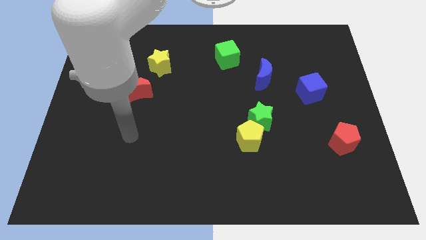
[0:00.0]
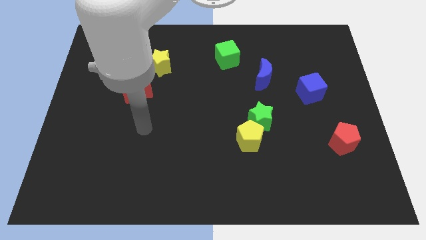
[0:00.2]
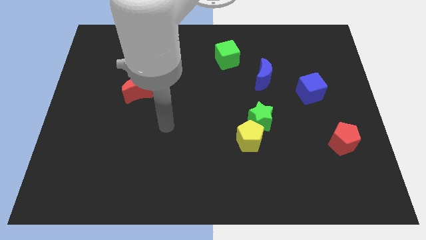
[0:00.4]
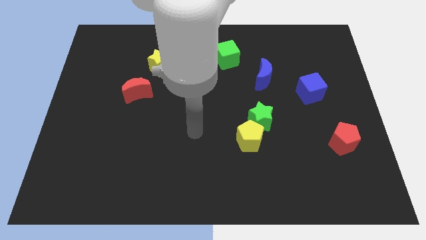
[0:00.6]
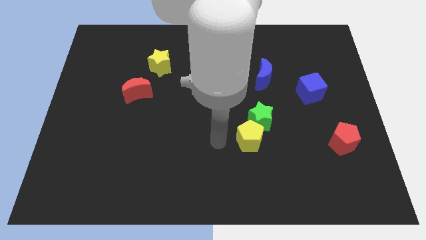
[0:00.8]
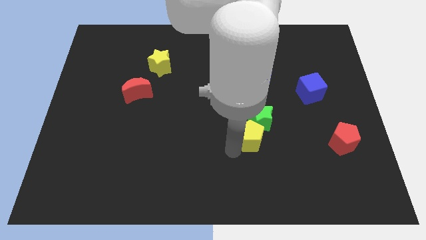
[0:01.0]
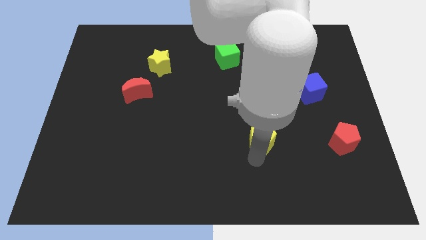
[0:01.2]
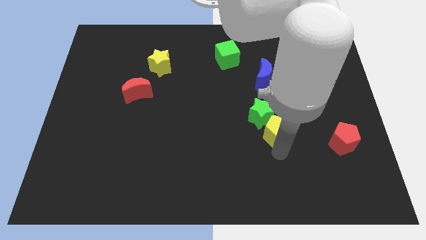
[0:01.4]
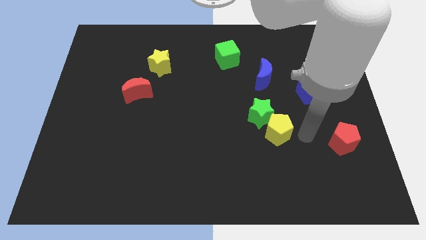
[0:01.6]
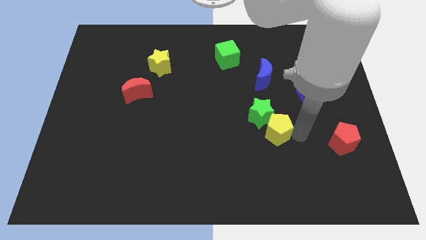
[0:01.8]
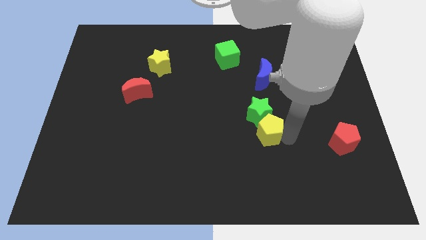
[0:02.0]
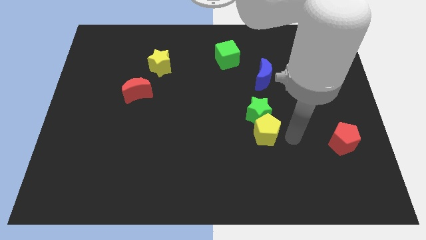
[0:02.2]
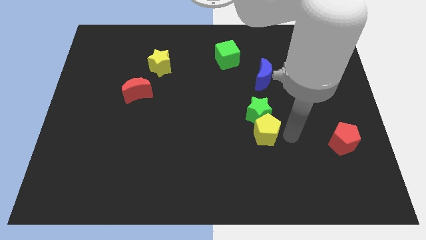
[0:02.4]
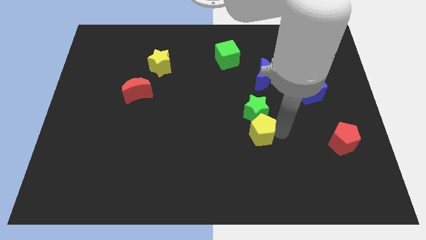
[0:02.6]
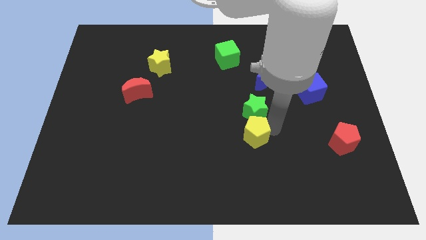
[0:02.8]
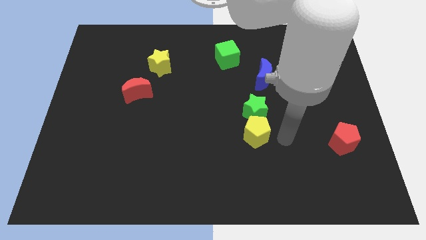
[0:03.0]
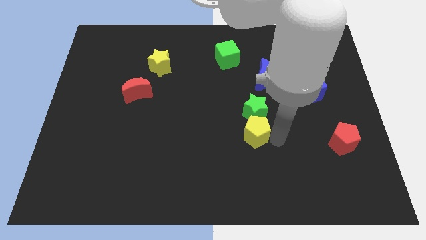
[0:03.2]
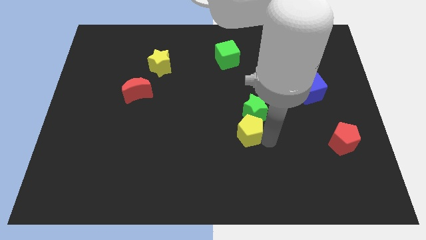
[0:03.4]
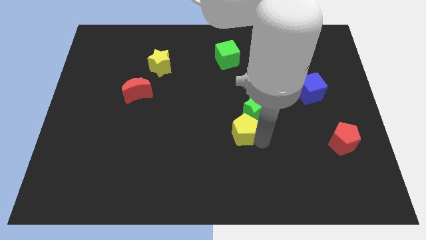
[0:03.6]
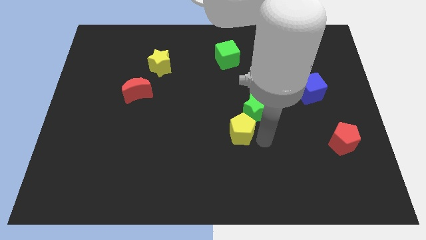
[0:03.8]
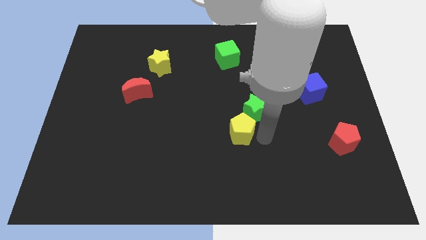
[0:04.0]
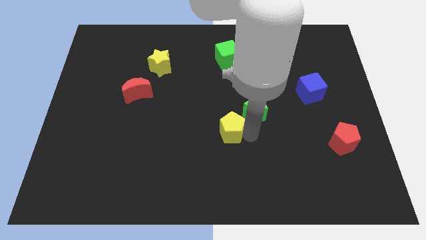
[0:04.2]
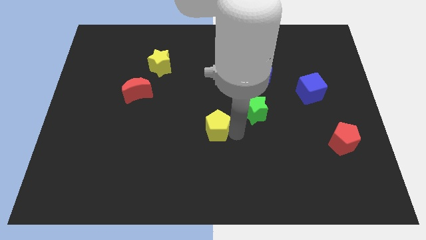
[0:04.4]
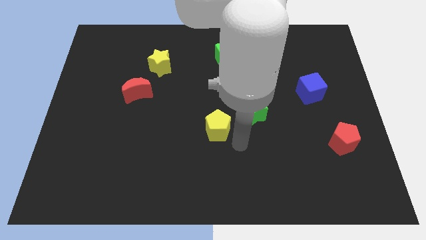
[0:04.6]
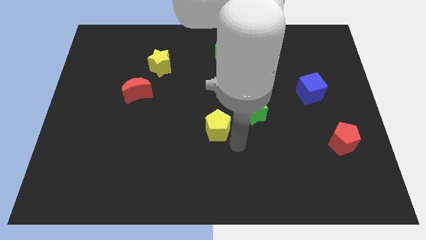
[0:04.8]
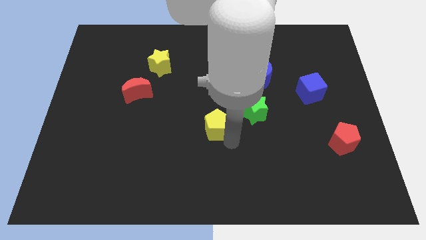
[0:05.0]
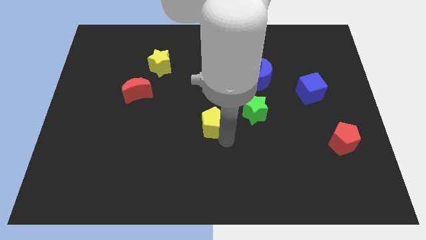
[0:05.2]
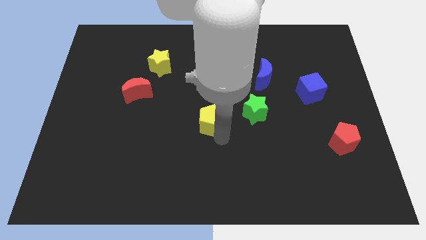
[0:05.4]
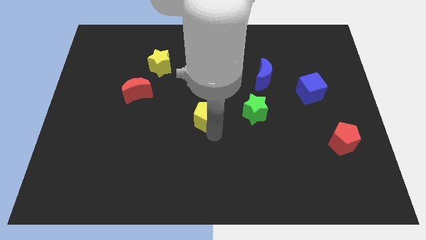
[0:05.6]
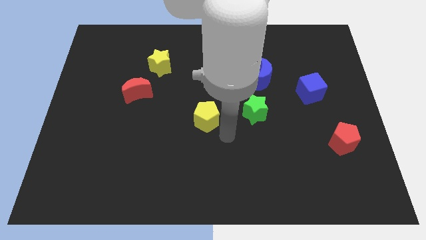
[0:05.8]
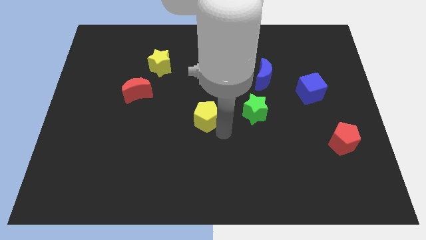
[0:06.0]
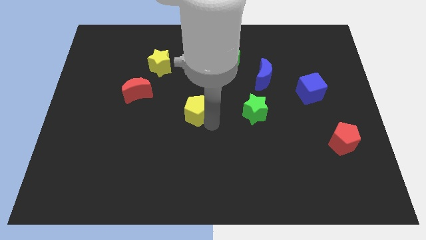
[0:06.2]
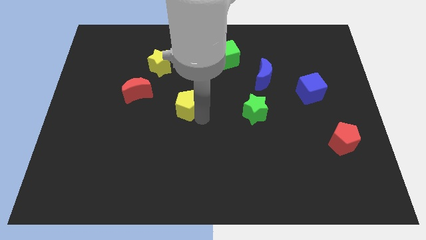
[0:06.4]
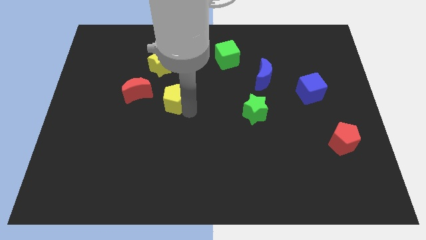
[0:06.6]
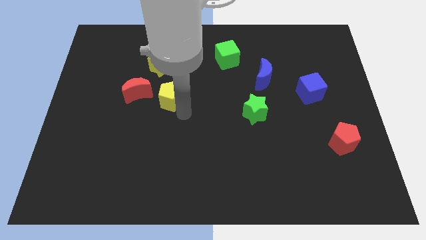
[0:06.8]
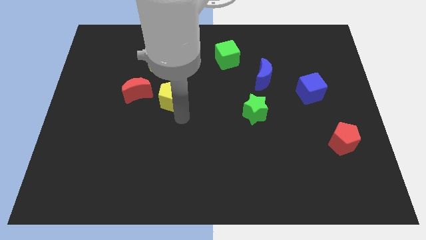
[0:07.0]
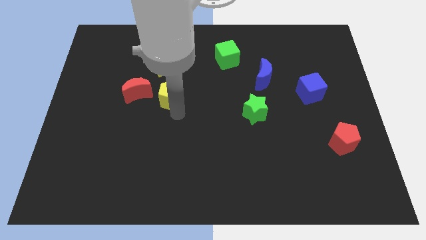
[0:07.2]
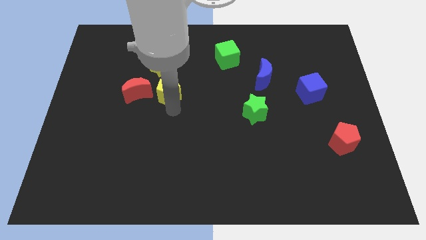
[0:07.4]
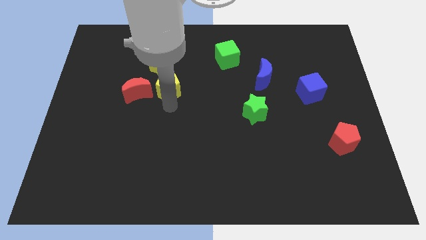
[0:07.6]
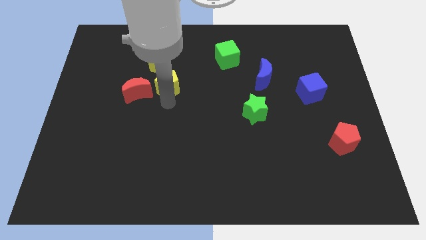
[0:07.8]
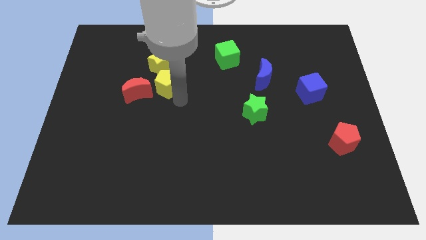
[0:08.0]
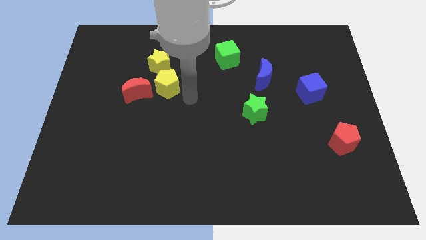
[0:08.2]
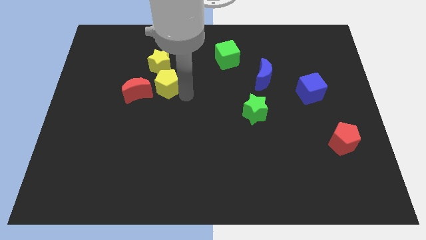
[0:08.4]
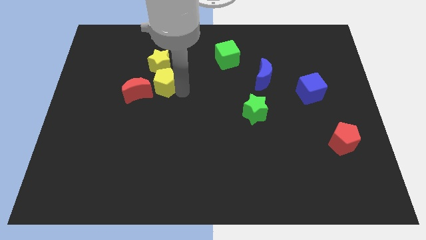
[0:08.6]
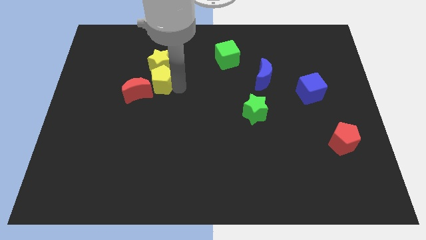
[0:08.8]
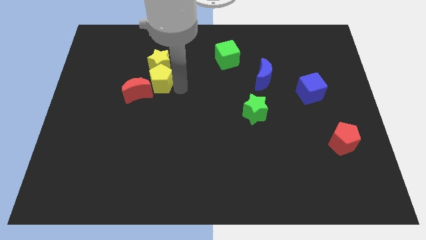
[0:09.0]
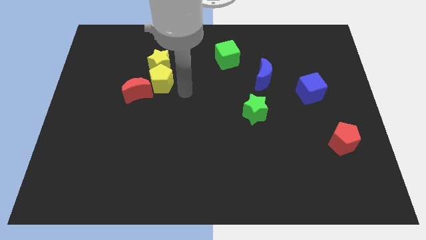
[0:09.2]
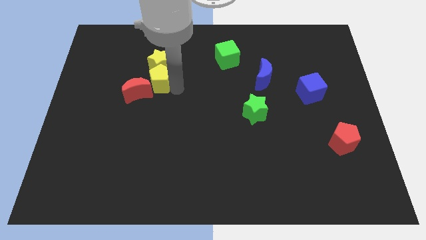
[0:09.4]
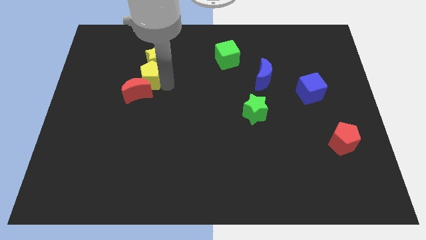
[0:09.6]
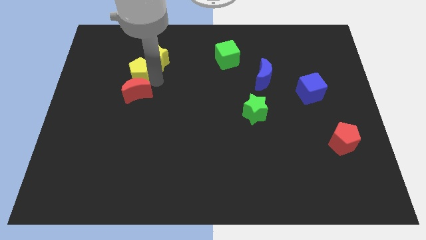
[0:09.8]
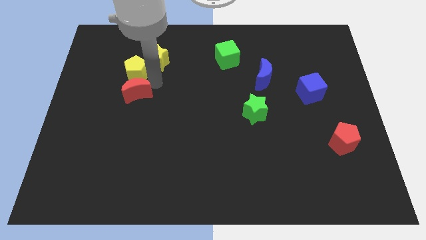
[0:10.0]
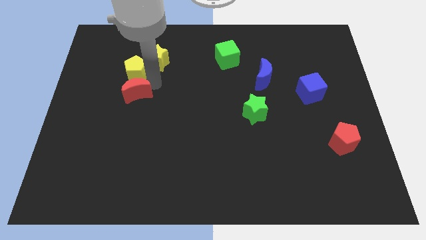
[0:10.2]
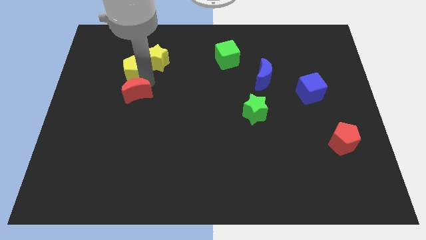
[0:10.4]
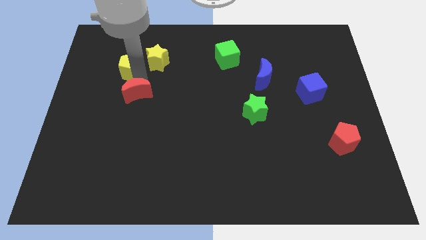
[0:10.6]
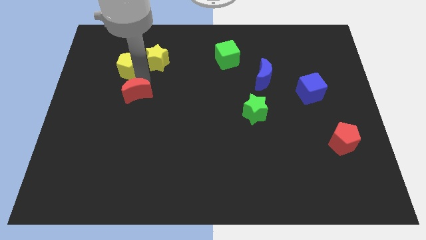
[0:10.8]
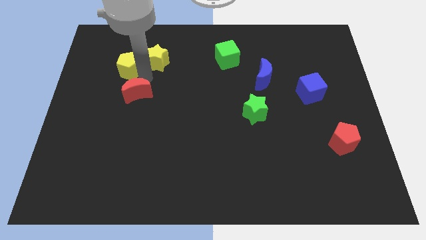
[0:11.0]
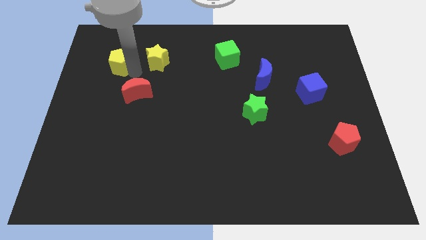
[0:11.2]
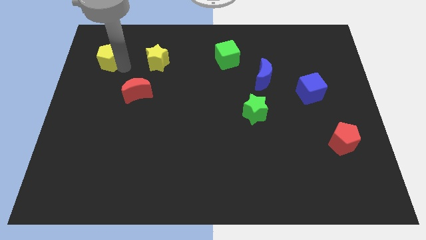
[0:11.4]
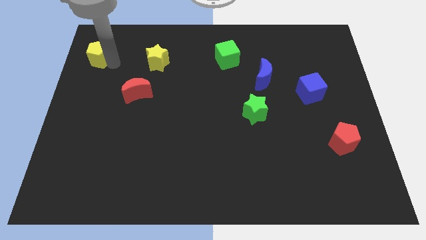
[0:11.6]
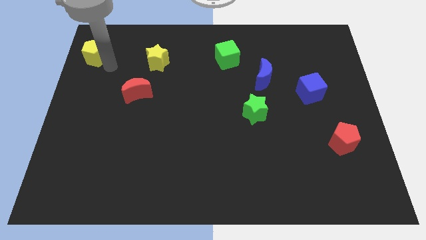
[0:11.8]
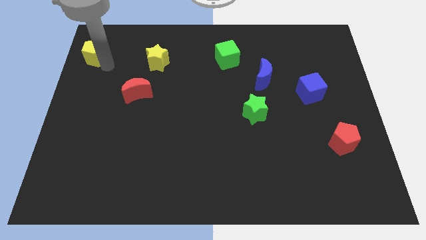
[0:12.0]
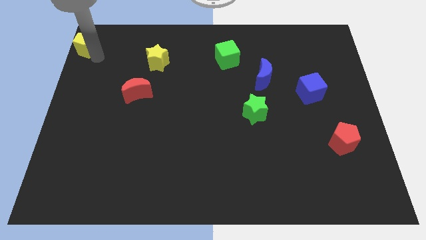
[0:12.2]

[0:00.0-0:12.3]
put the yellow pentagon to the upper left corner

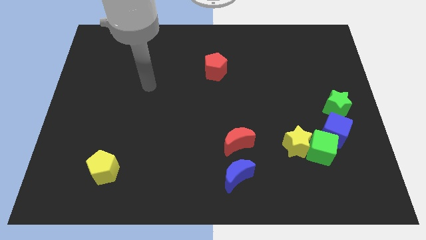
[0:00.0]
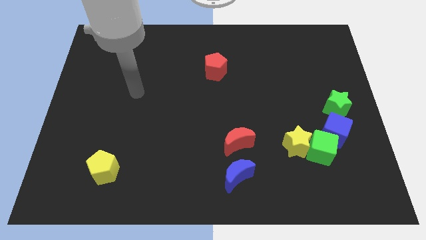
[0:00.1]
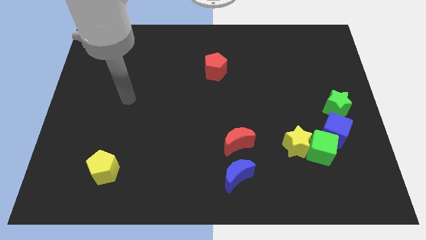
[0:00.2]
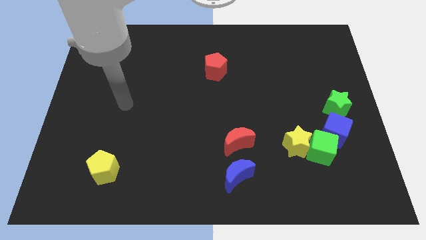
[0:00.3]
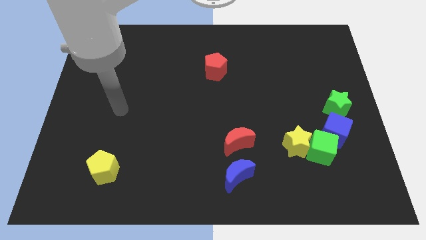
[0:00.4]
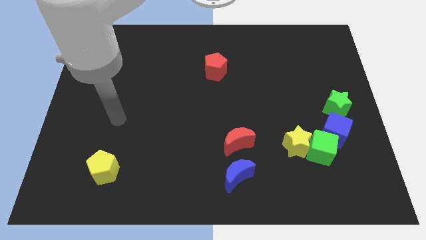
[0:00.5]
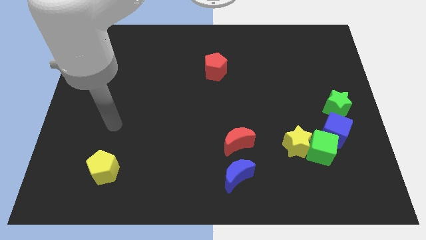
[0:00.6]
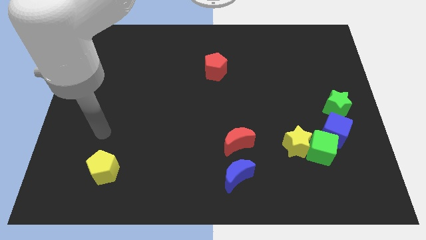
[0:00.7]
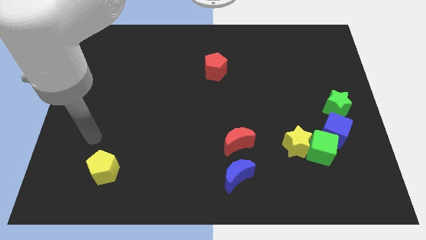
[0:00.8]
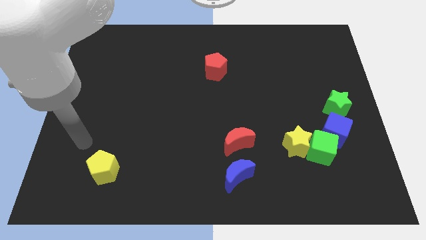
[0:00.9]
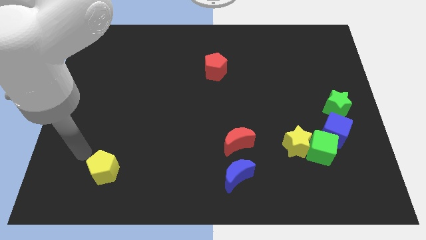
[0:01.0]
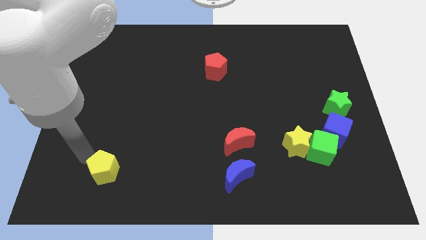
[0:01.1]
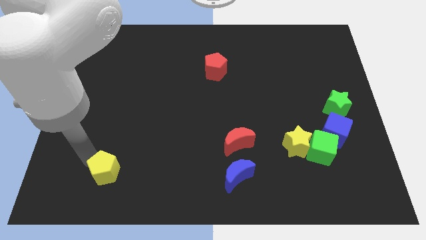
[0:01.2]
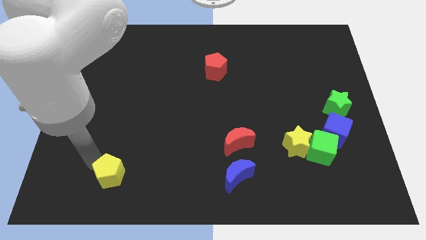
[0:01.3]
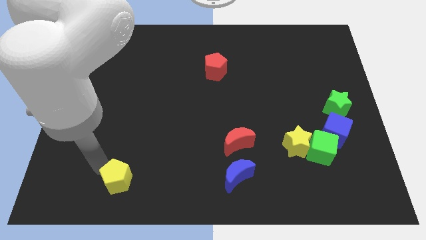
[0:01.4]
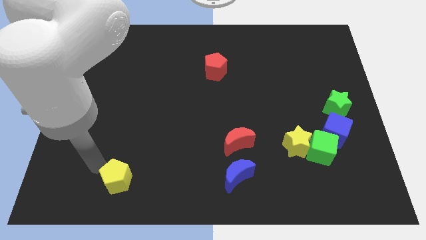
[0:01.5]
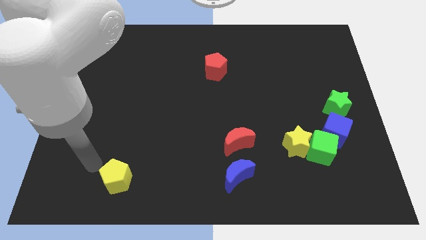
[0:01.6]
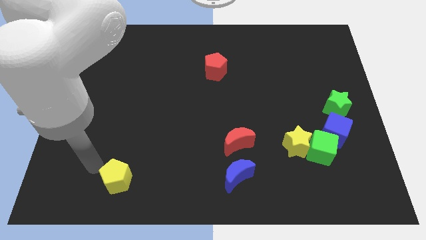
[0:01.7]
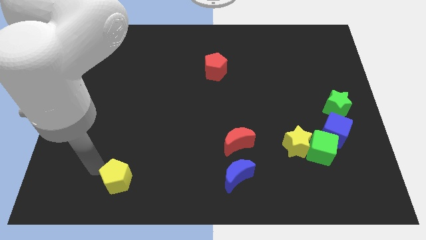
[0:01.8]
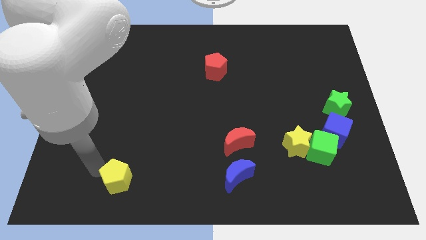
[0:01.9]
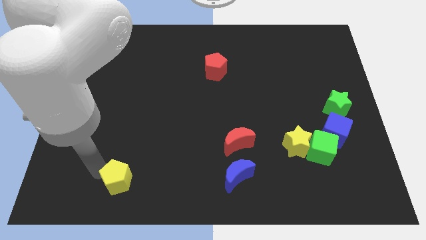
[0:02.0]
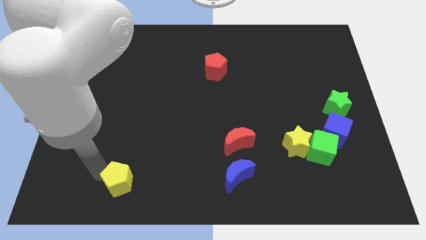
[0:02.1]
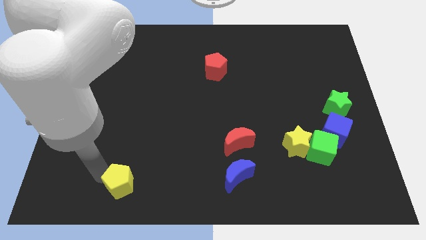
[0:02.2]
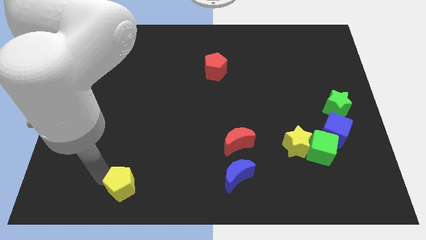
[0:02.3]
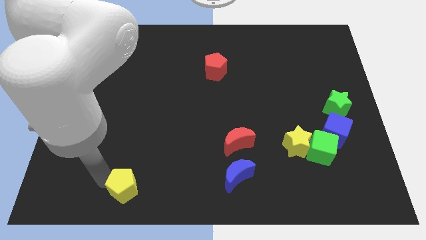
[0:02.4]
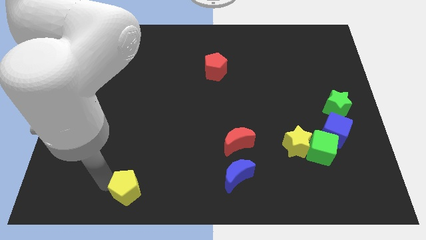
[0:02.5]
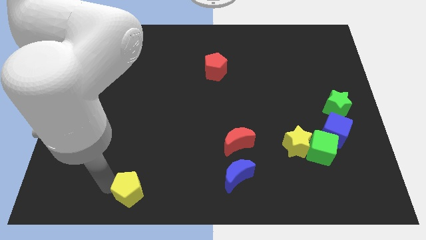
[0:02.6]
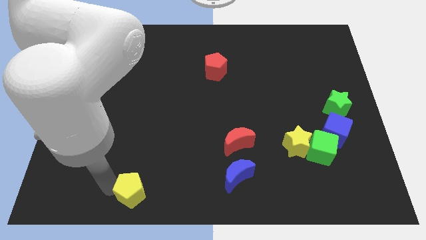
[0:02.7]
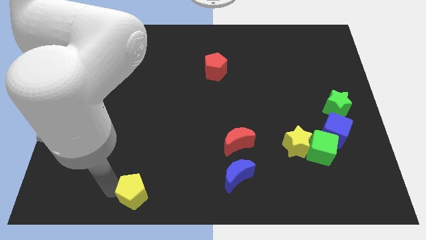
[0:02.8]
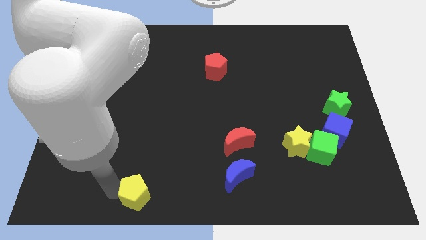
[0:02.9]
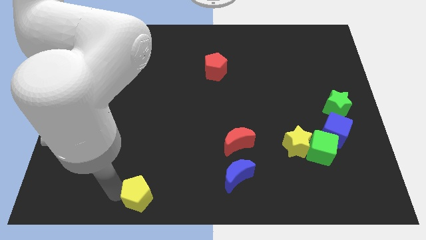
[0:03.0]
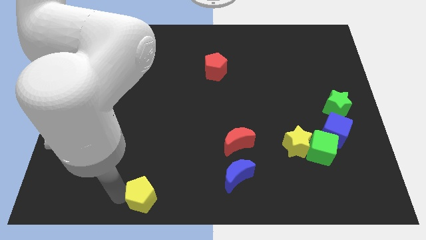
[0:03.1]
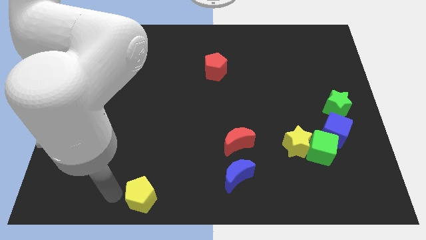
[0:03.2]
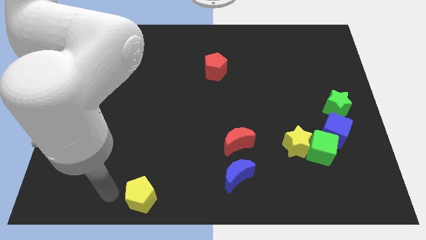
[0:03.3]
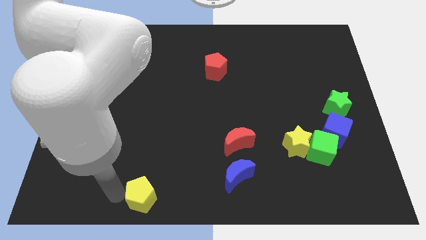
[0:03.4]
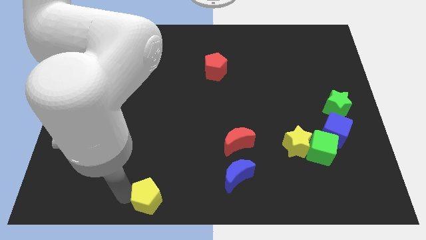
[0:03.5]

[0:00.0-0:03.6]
slide the yellow pentagon to the bottom
